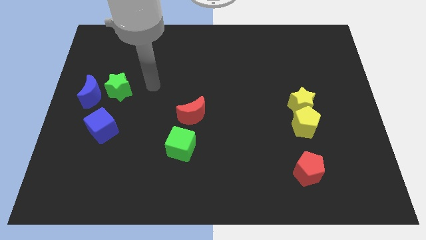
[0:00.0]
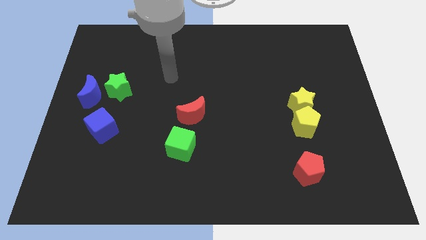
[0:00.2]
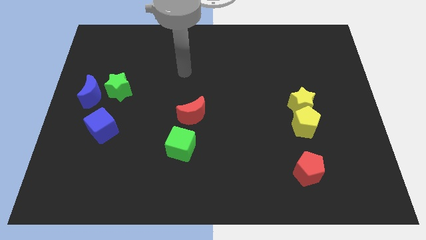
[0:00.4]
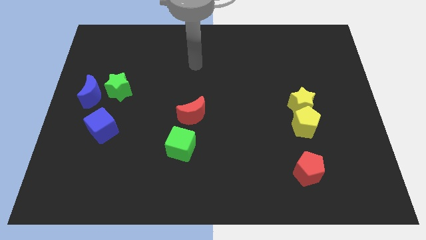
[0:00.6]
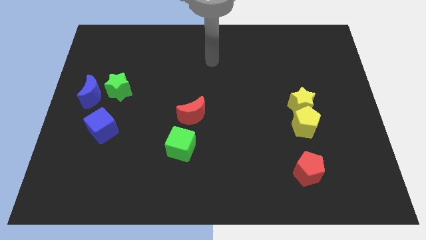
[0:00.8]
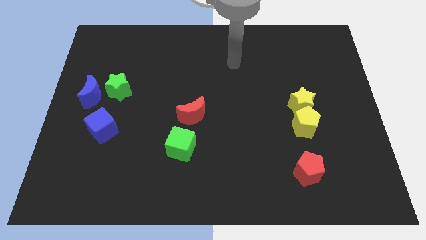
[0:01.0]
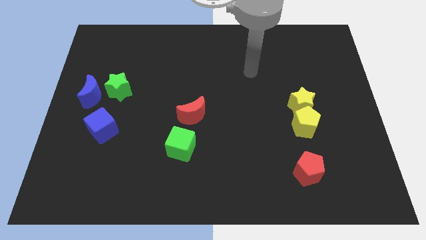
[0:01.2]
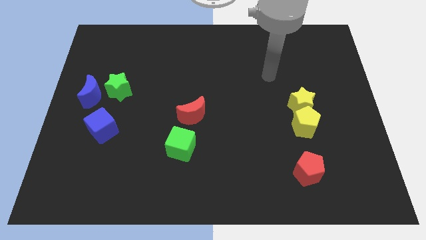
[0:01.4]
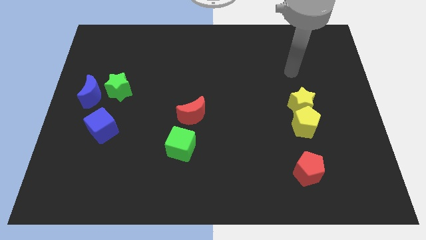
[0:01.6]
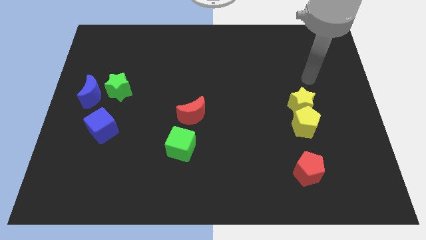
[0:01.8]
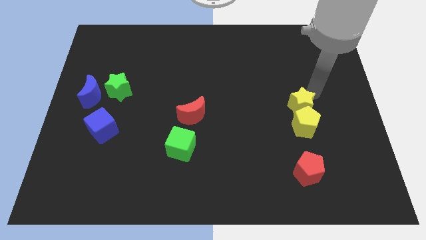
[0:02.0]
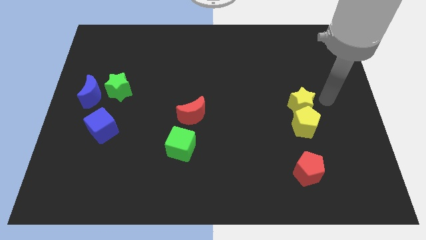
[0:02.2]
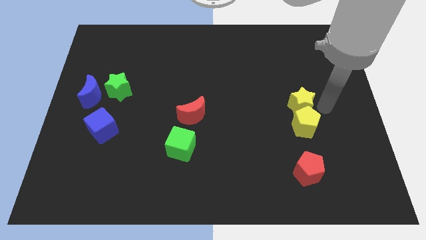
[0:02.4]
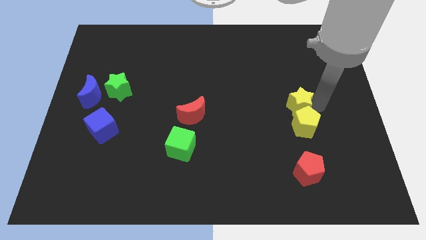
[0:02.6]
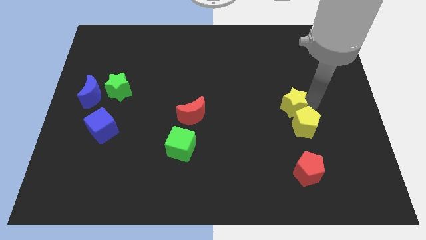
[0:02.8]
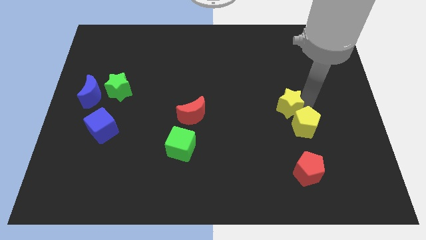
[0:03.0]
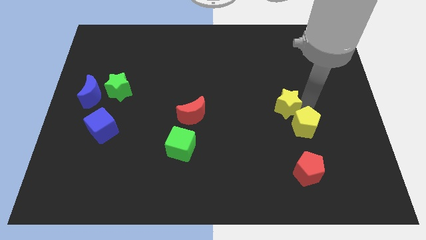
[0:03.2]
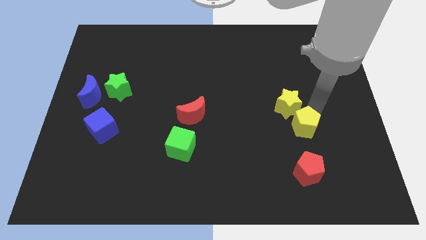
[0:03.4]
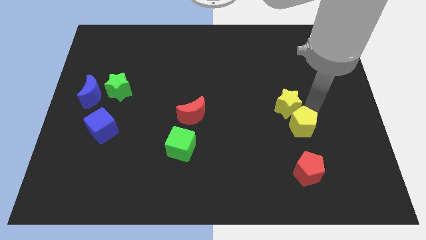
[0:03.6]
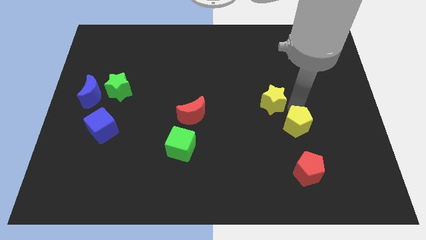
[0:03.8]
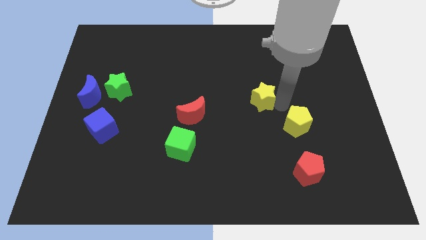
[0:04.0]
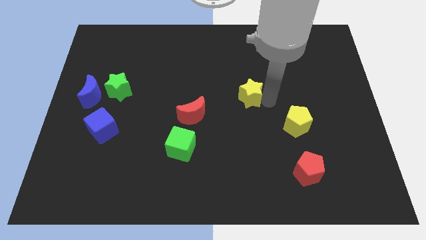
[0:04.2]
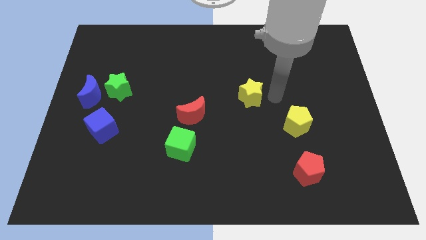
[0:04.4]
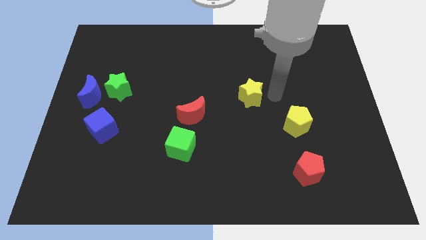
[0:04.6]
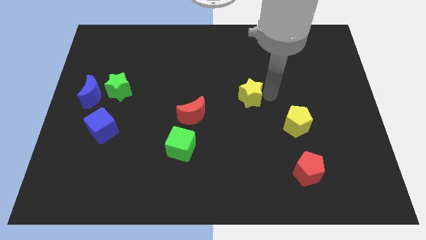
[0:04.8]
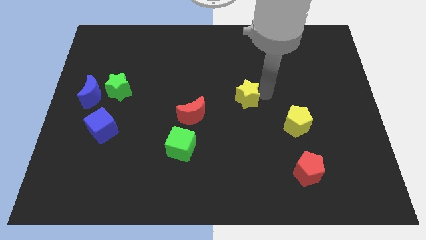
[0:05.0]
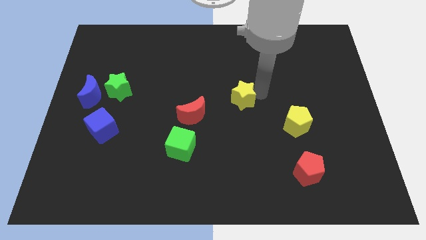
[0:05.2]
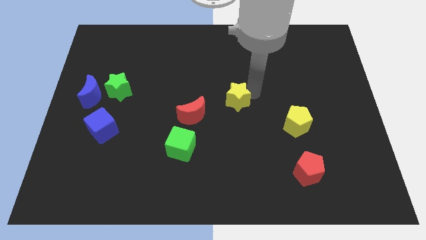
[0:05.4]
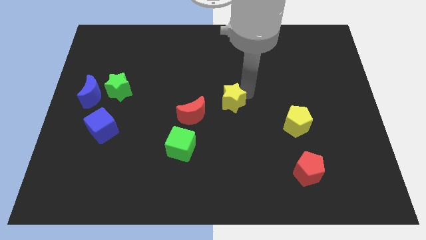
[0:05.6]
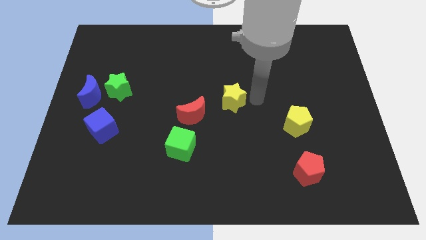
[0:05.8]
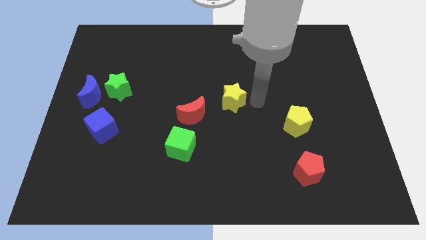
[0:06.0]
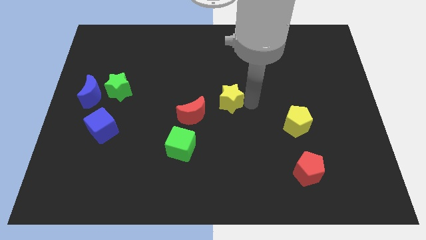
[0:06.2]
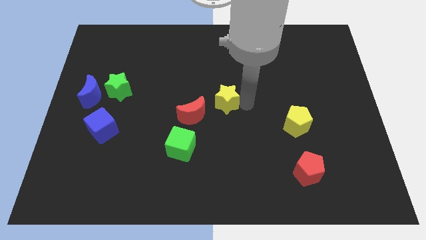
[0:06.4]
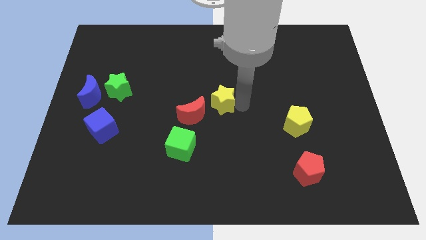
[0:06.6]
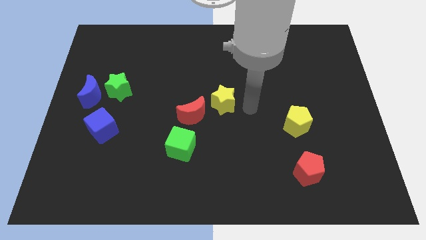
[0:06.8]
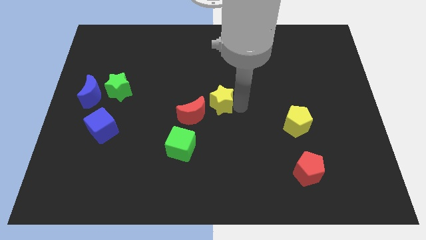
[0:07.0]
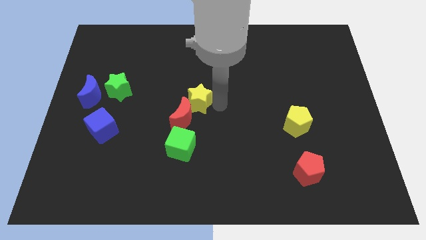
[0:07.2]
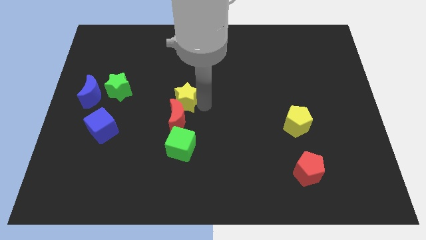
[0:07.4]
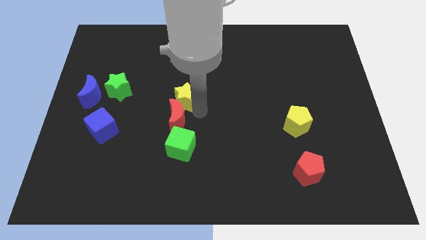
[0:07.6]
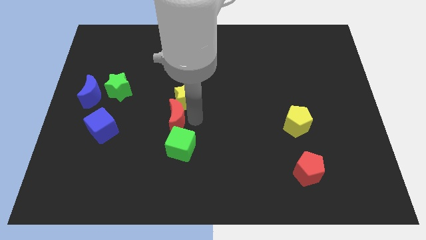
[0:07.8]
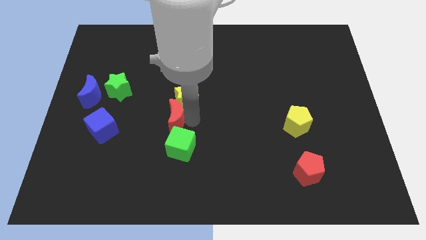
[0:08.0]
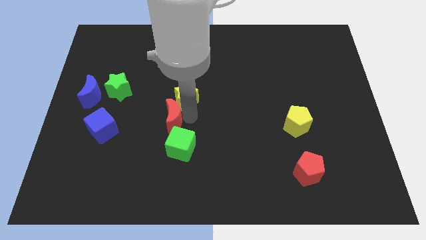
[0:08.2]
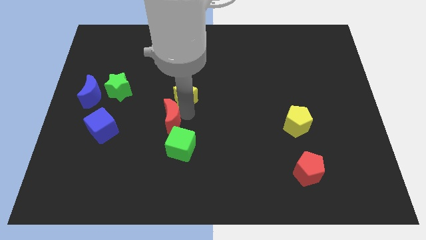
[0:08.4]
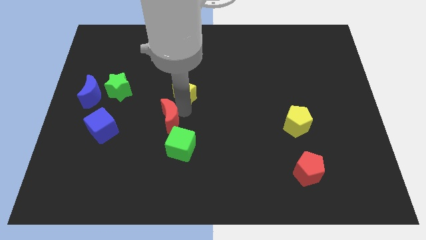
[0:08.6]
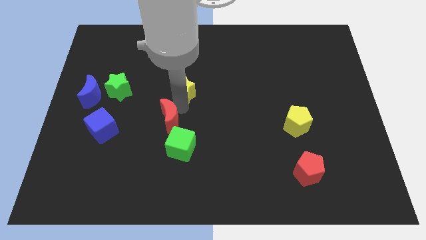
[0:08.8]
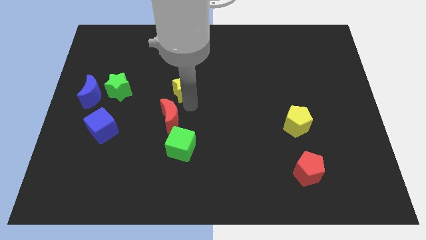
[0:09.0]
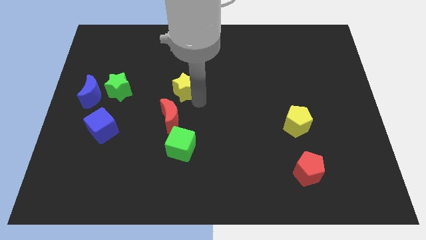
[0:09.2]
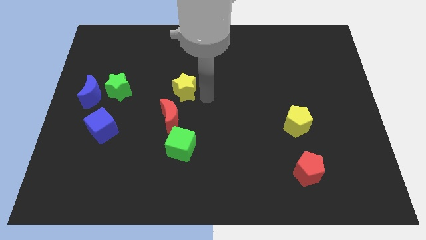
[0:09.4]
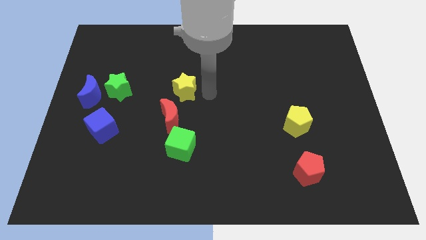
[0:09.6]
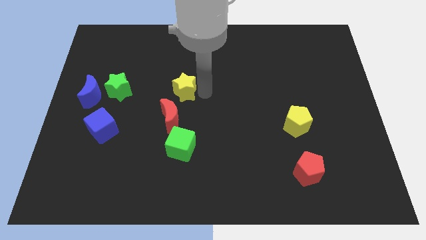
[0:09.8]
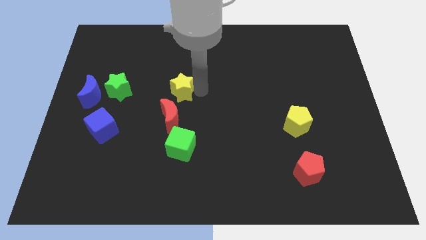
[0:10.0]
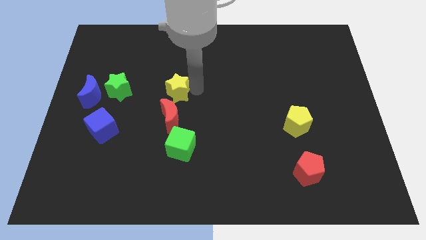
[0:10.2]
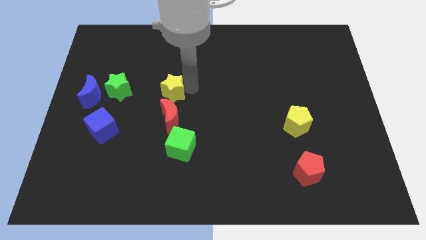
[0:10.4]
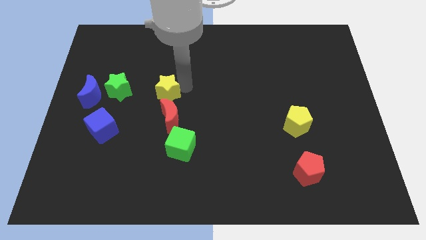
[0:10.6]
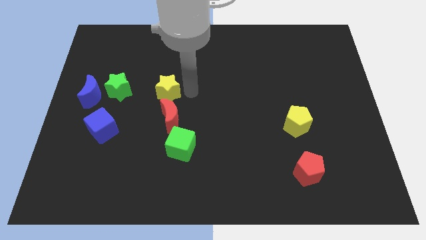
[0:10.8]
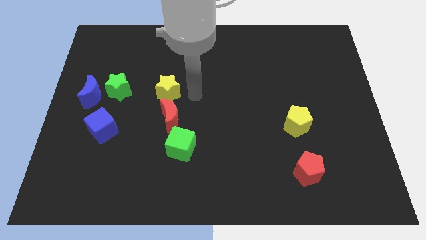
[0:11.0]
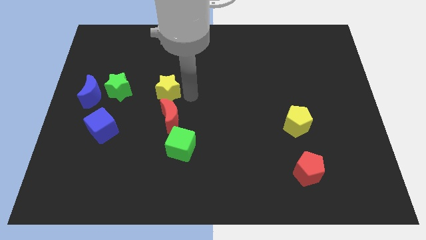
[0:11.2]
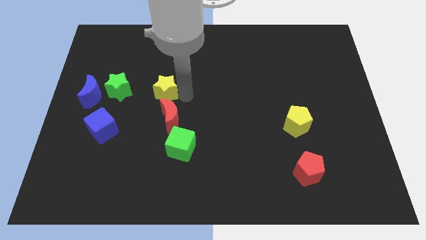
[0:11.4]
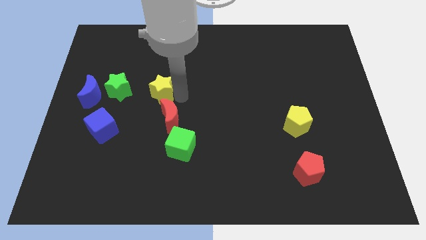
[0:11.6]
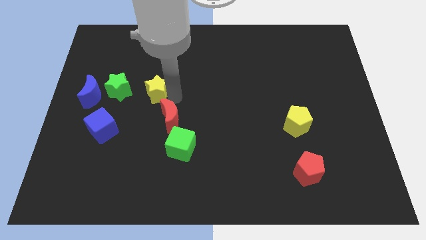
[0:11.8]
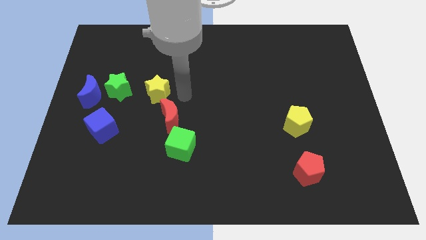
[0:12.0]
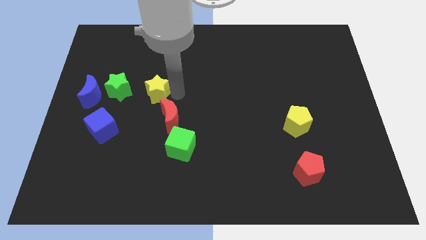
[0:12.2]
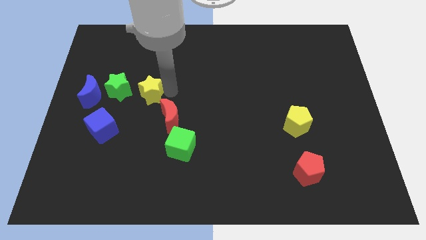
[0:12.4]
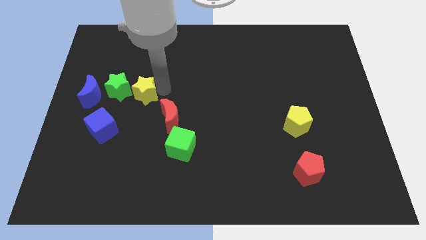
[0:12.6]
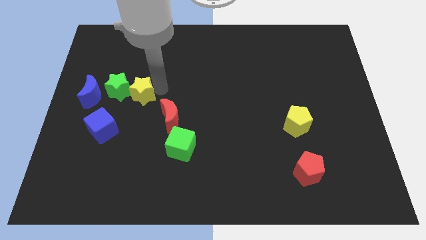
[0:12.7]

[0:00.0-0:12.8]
put the yellow star next to the green star

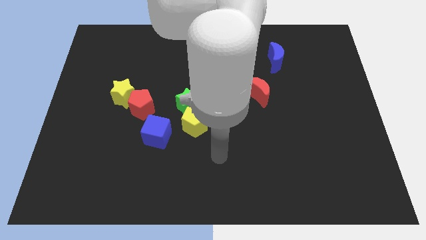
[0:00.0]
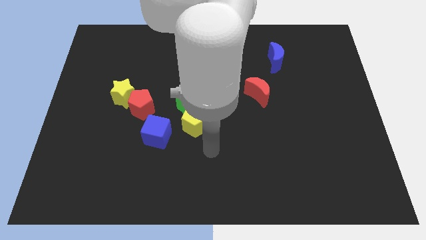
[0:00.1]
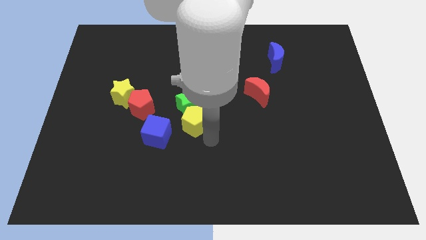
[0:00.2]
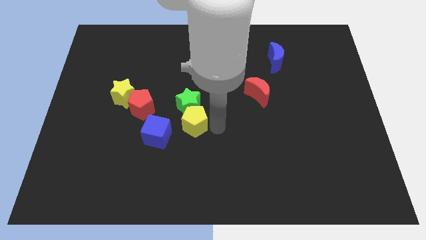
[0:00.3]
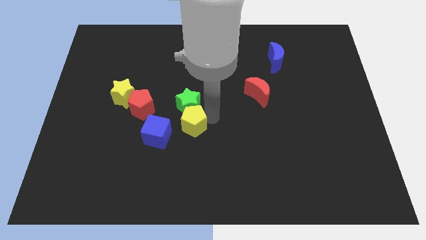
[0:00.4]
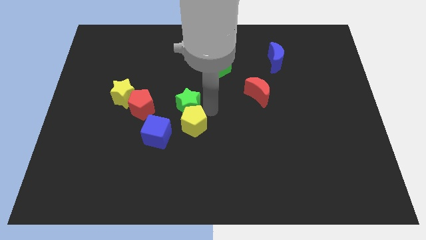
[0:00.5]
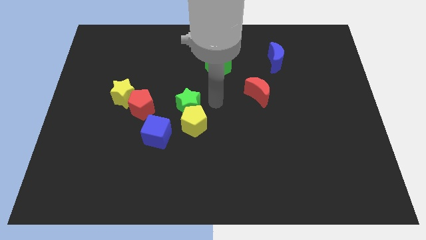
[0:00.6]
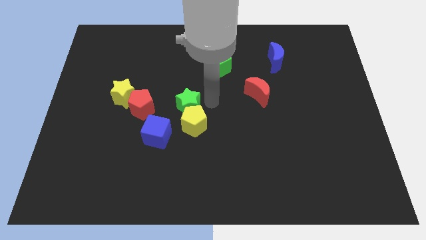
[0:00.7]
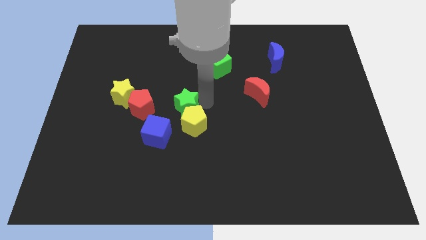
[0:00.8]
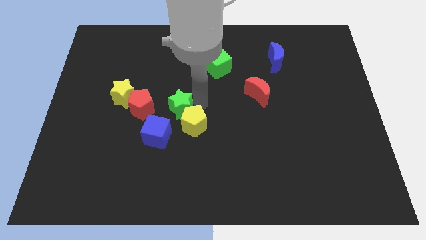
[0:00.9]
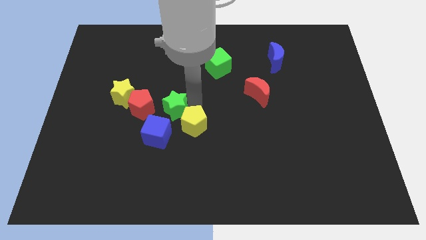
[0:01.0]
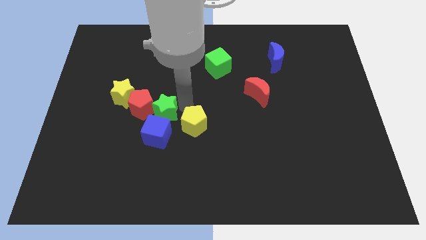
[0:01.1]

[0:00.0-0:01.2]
put the green star close to the red pentagon
